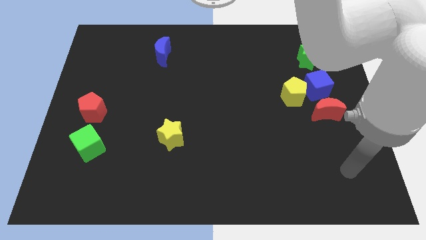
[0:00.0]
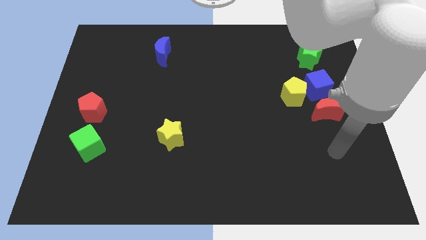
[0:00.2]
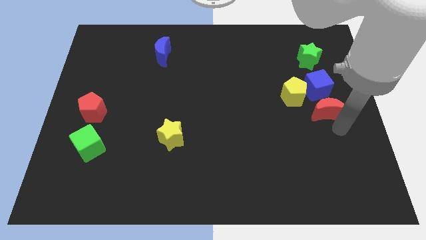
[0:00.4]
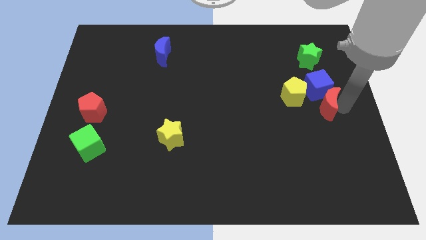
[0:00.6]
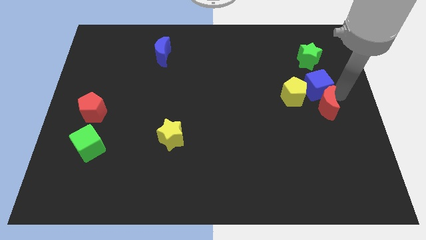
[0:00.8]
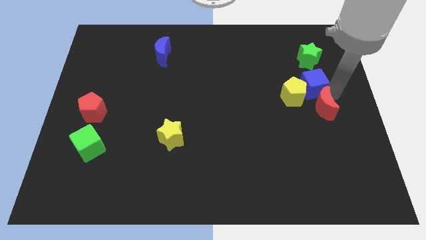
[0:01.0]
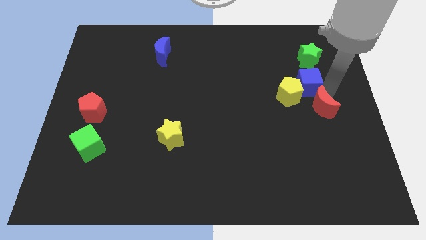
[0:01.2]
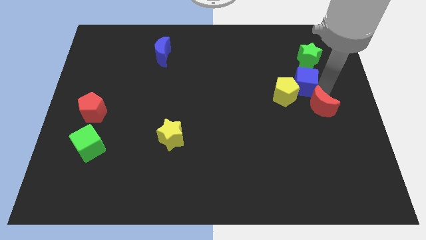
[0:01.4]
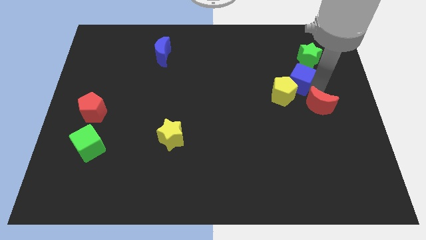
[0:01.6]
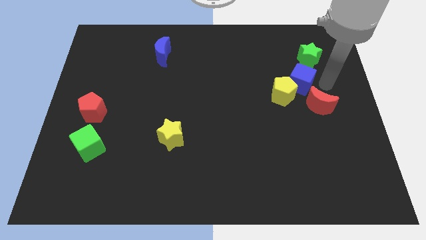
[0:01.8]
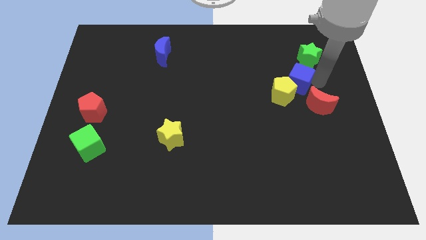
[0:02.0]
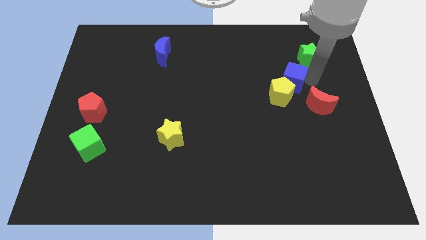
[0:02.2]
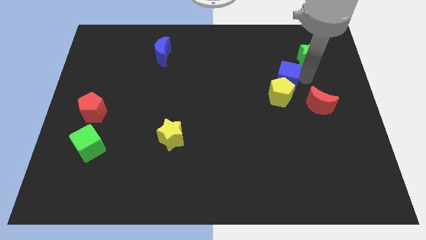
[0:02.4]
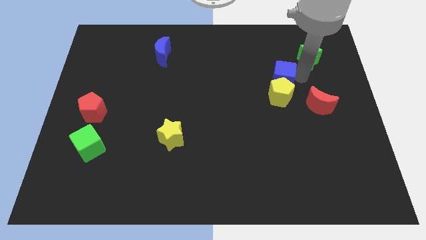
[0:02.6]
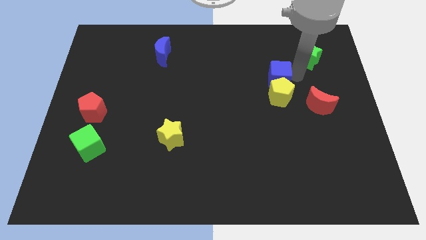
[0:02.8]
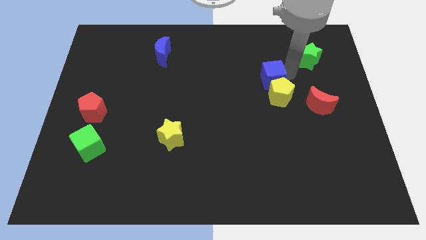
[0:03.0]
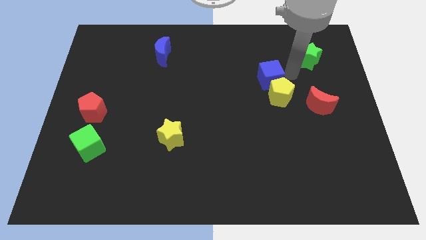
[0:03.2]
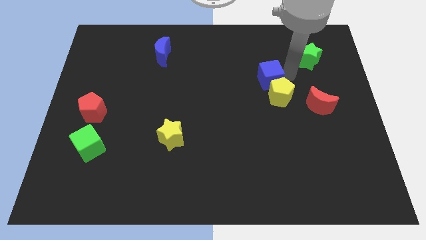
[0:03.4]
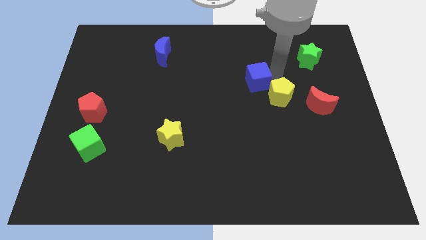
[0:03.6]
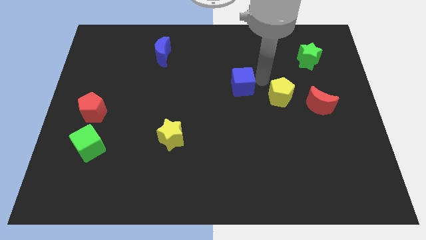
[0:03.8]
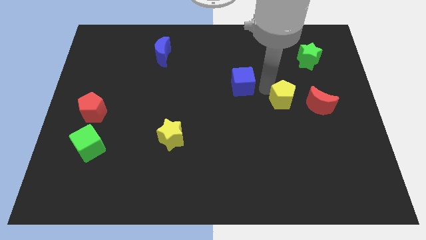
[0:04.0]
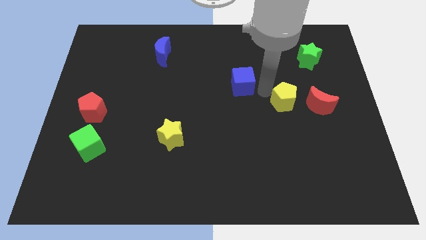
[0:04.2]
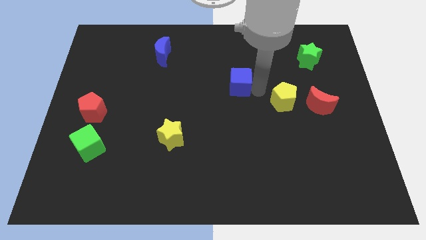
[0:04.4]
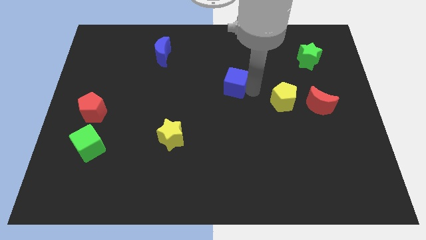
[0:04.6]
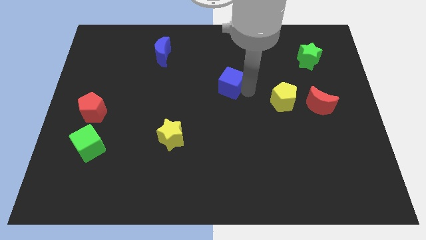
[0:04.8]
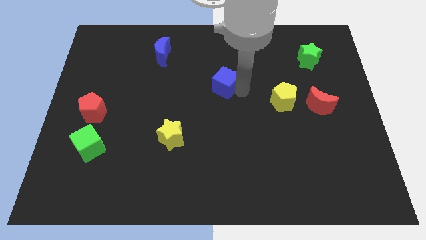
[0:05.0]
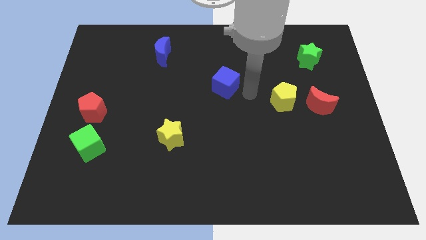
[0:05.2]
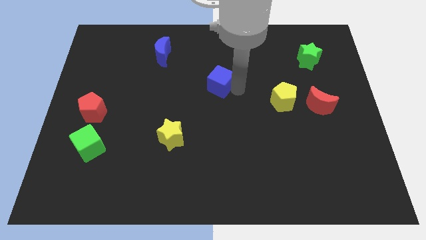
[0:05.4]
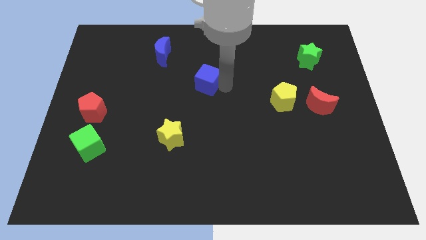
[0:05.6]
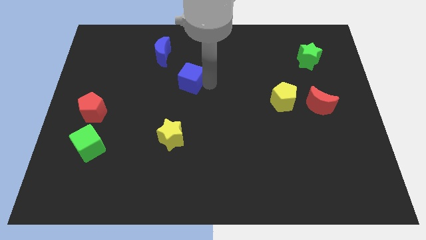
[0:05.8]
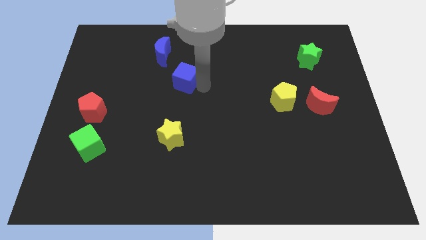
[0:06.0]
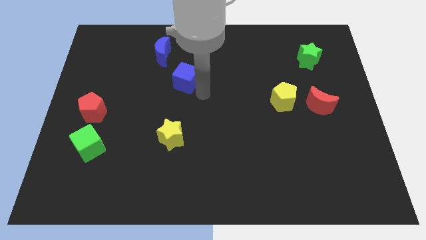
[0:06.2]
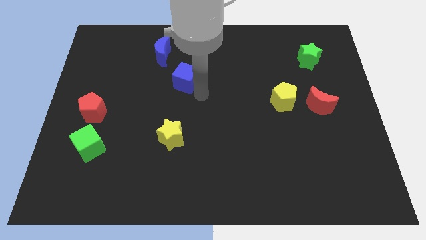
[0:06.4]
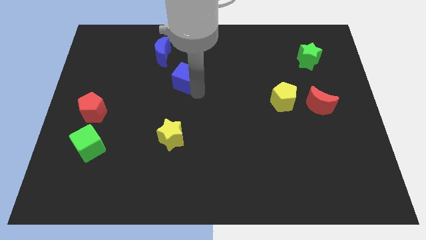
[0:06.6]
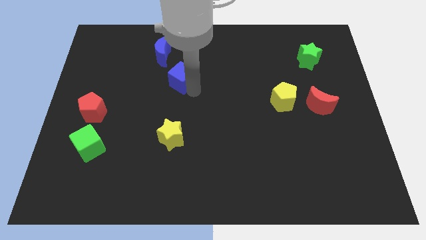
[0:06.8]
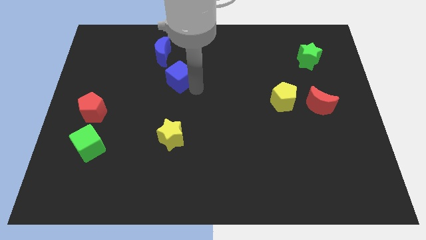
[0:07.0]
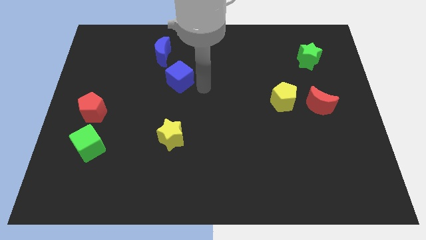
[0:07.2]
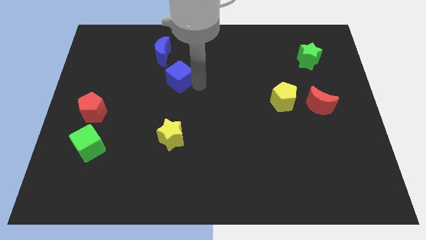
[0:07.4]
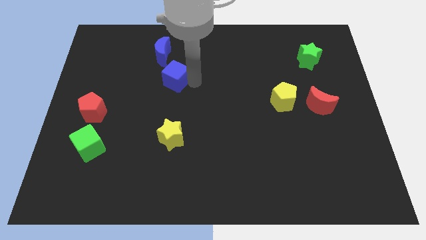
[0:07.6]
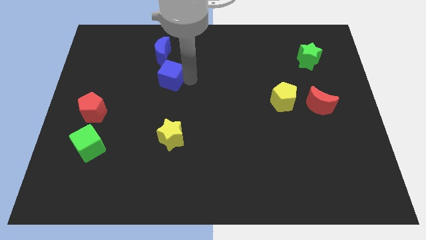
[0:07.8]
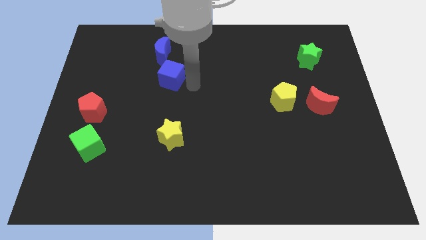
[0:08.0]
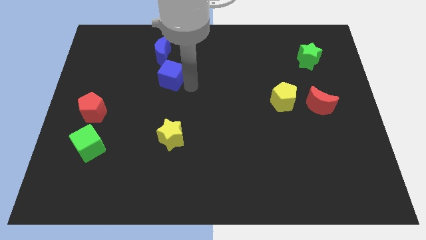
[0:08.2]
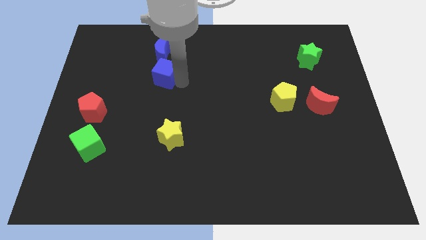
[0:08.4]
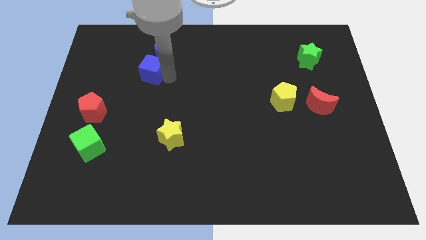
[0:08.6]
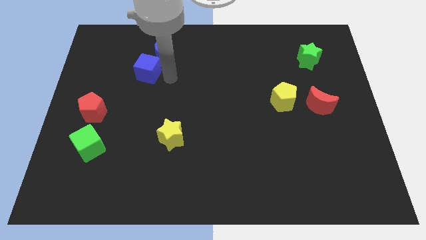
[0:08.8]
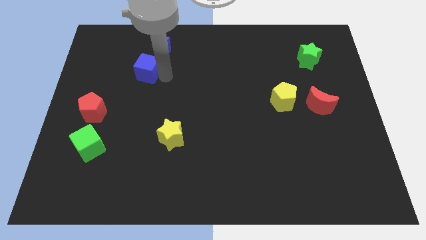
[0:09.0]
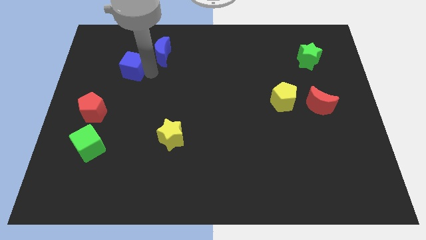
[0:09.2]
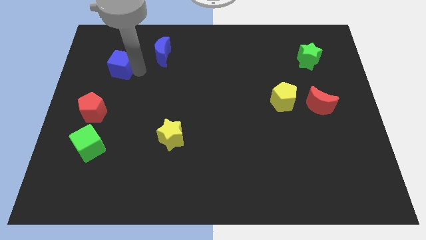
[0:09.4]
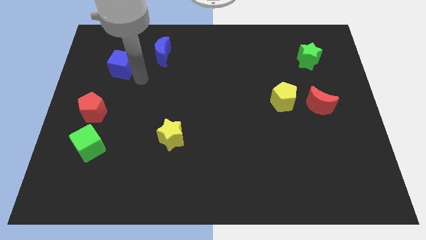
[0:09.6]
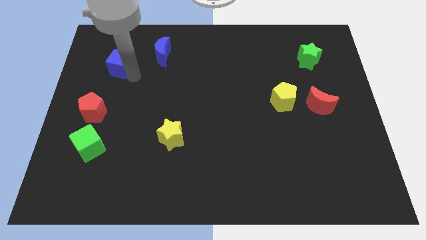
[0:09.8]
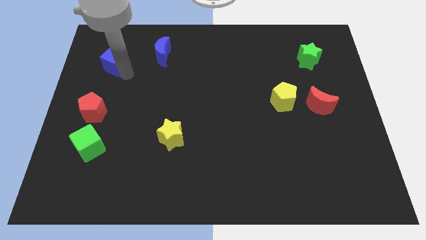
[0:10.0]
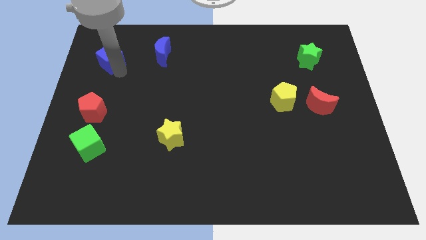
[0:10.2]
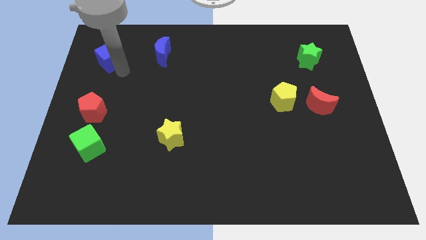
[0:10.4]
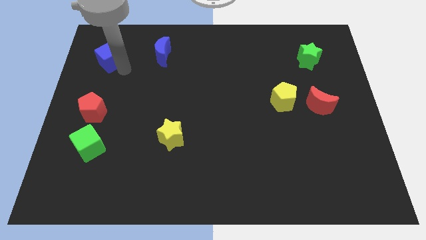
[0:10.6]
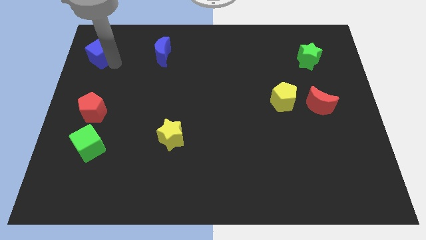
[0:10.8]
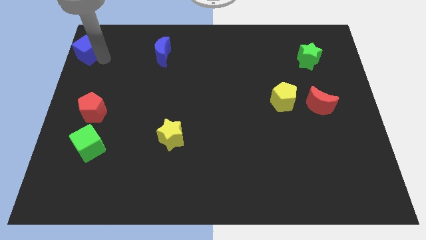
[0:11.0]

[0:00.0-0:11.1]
move the blue cube to the top left of the board

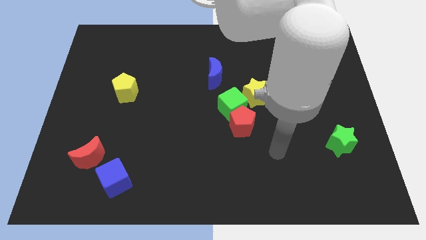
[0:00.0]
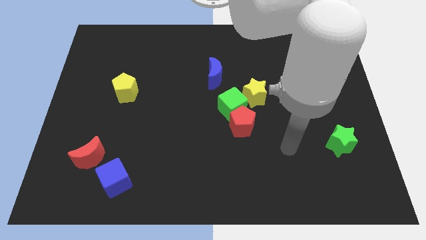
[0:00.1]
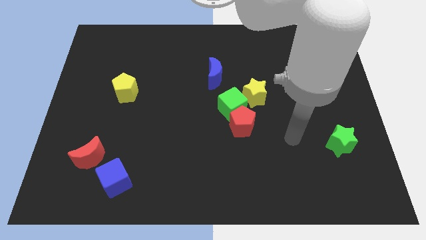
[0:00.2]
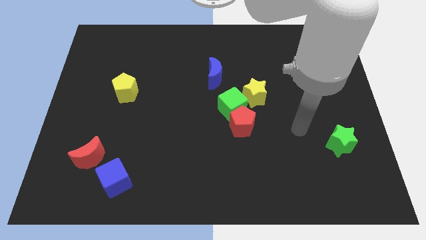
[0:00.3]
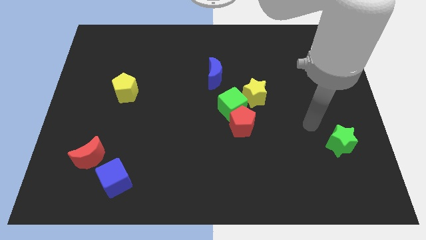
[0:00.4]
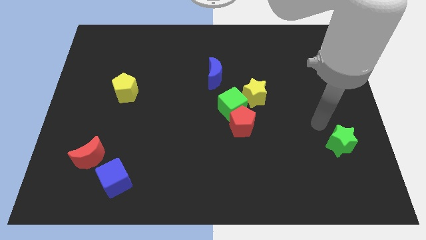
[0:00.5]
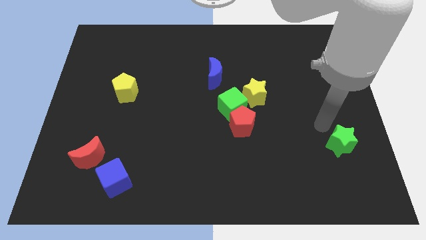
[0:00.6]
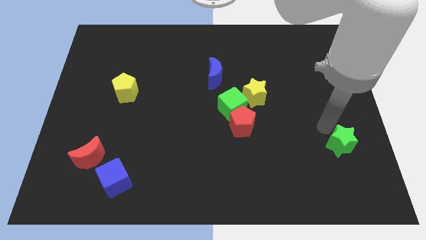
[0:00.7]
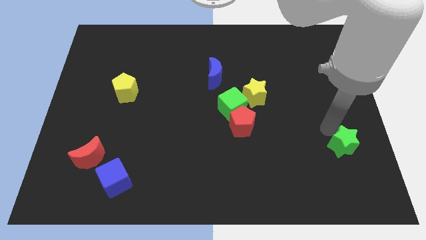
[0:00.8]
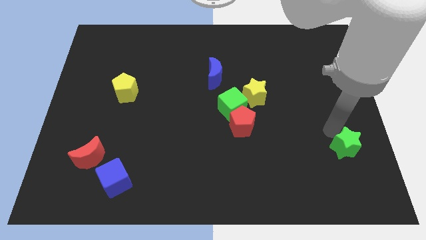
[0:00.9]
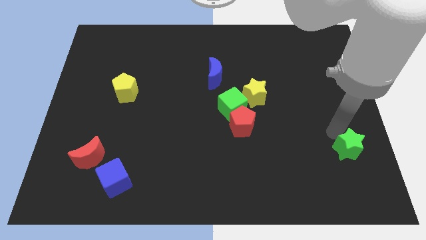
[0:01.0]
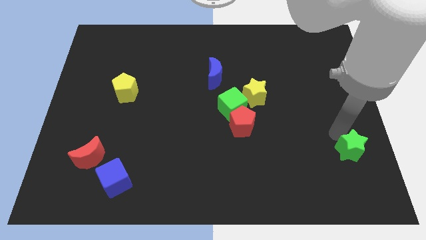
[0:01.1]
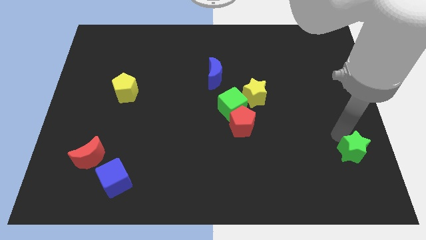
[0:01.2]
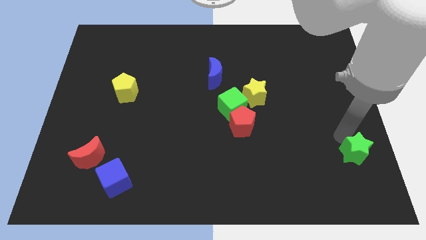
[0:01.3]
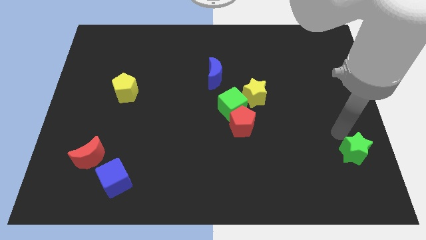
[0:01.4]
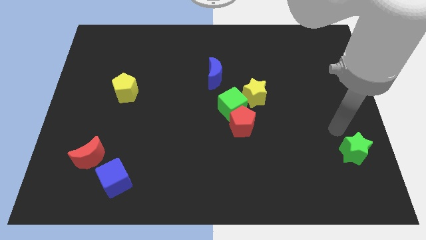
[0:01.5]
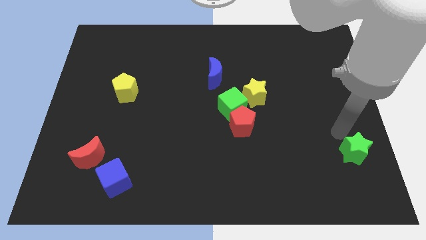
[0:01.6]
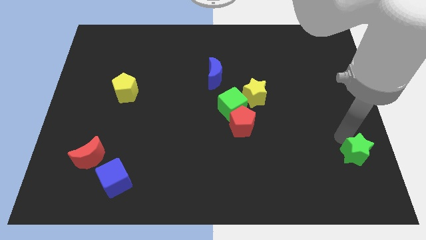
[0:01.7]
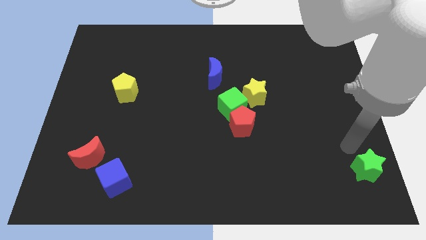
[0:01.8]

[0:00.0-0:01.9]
put the green star to the bottom right
